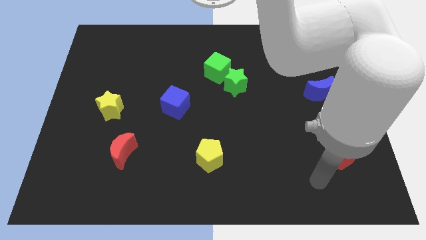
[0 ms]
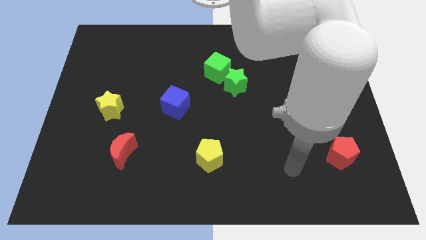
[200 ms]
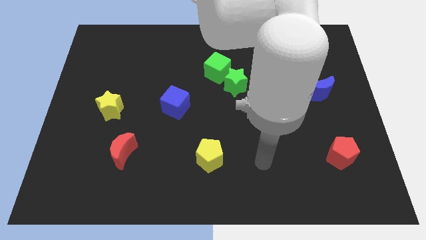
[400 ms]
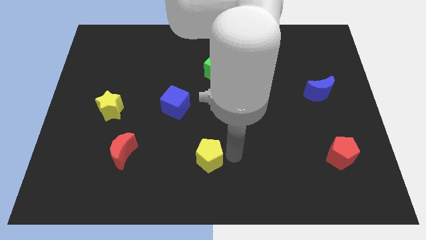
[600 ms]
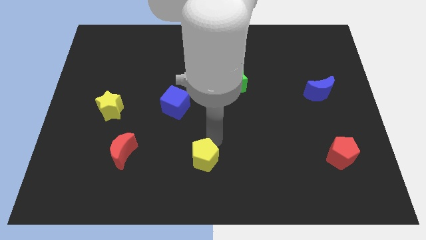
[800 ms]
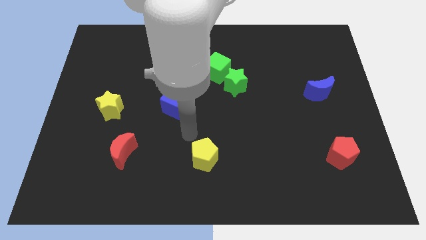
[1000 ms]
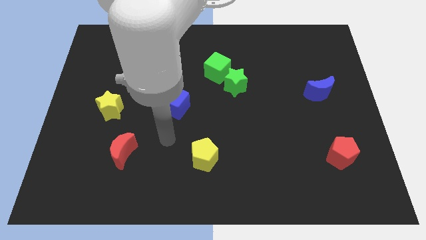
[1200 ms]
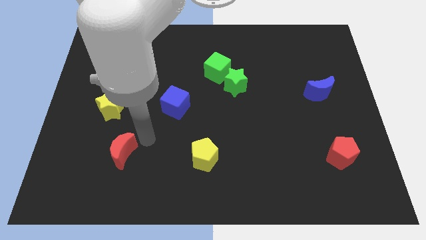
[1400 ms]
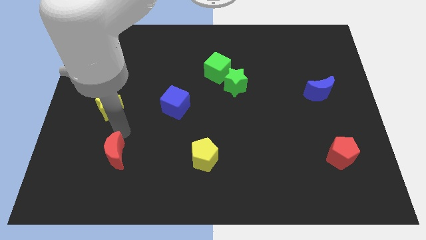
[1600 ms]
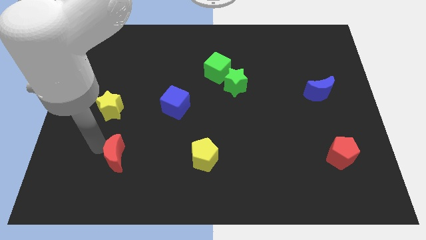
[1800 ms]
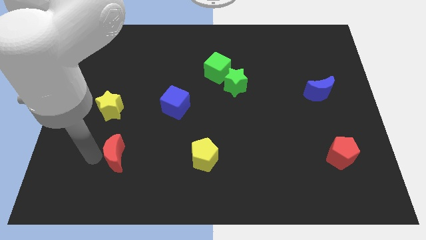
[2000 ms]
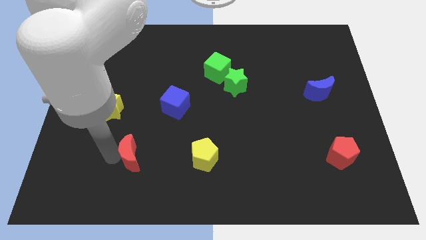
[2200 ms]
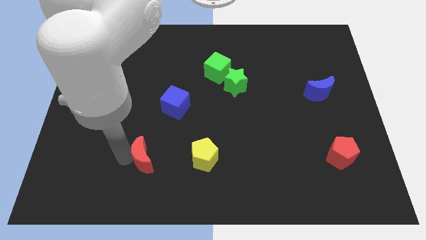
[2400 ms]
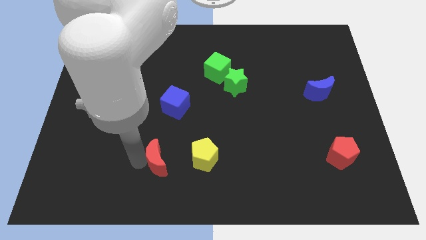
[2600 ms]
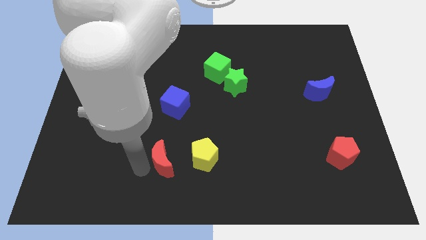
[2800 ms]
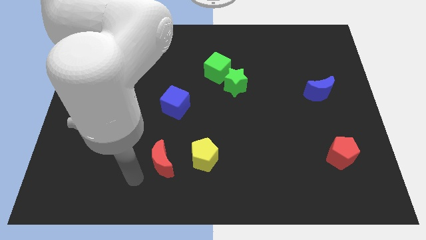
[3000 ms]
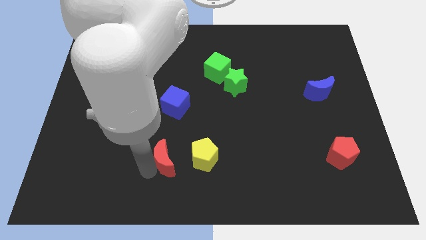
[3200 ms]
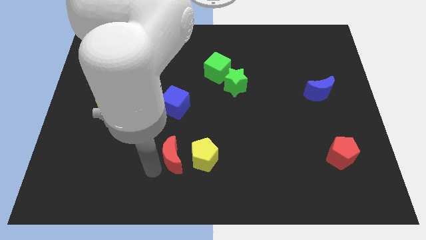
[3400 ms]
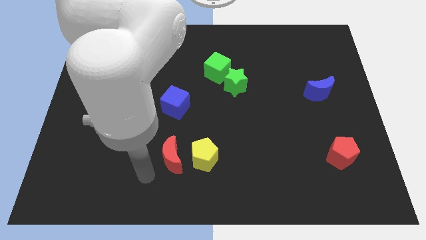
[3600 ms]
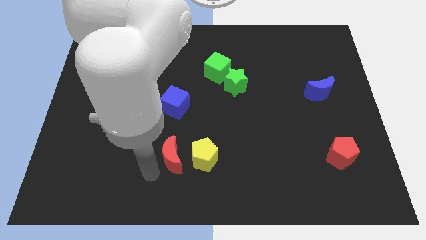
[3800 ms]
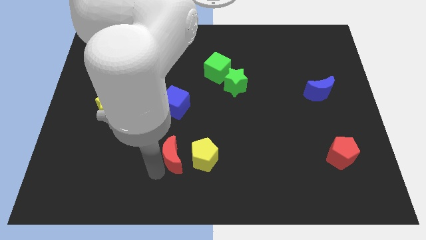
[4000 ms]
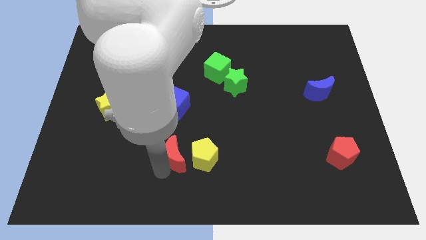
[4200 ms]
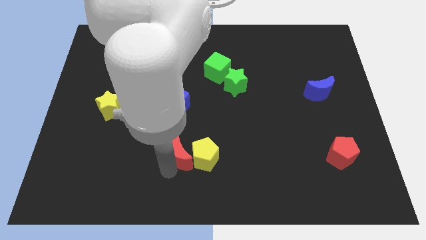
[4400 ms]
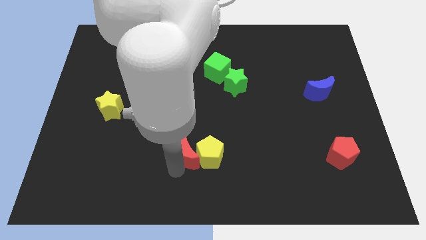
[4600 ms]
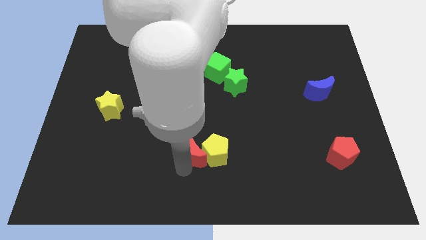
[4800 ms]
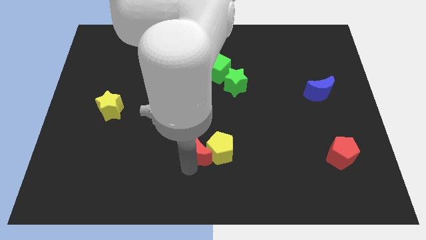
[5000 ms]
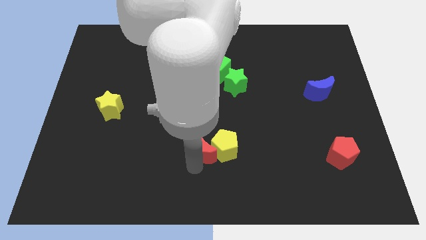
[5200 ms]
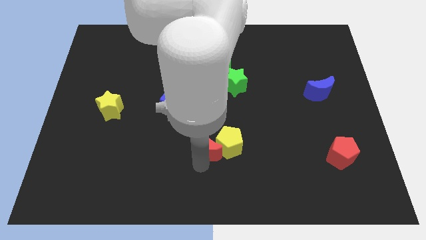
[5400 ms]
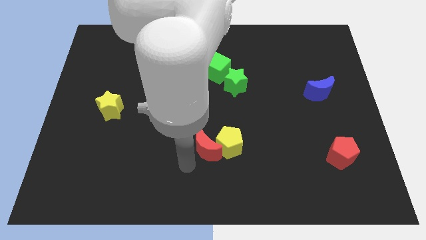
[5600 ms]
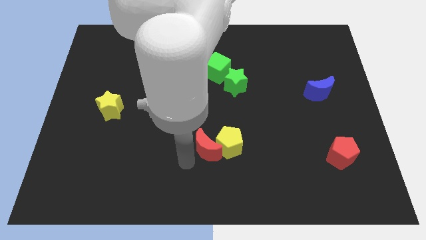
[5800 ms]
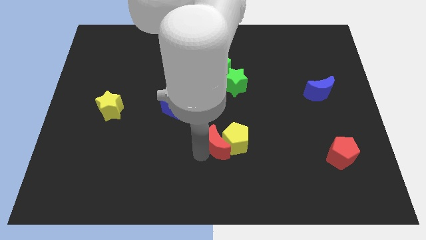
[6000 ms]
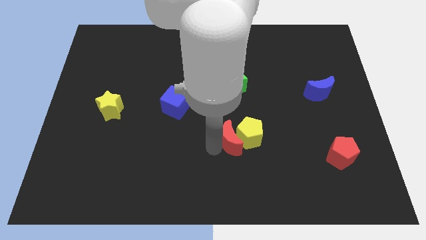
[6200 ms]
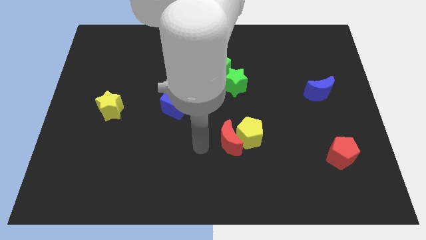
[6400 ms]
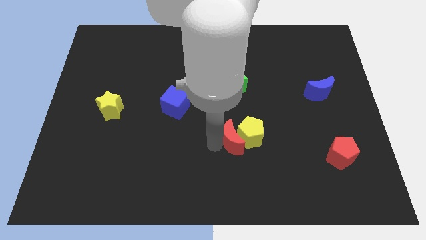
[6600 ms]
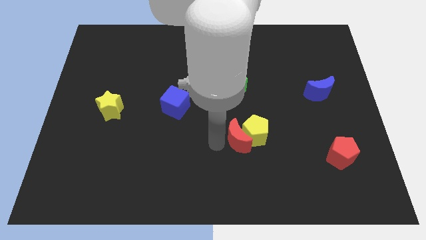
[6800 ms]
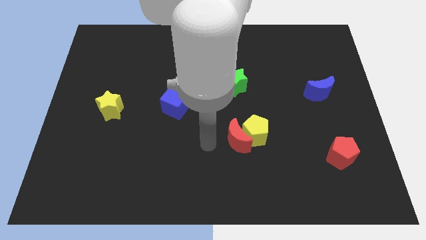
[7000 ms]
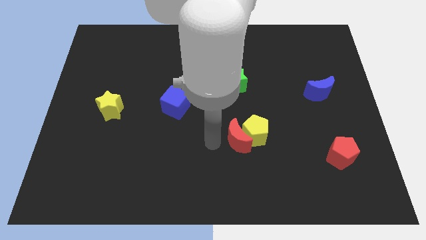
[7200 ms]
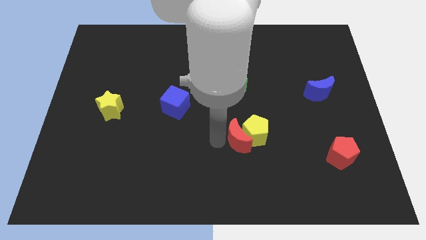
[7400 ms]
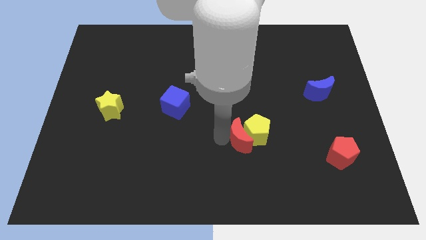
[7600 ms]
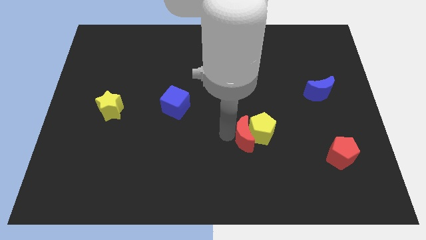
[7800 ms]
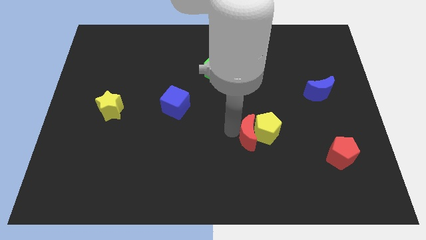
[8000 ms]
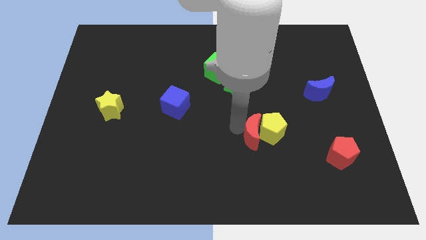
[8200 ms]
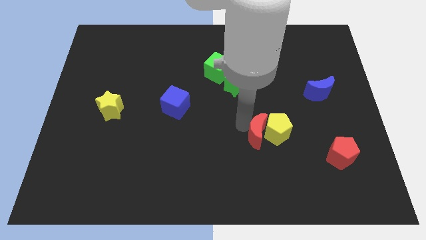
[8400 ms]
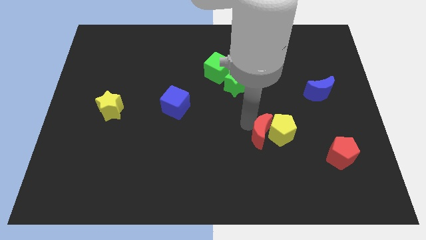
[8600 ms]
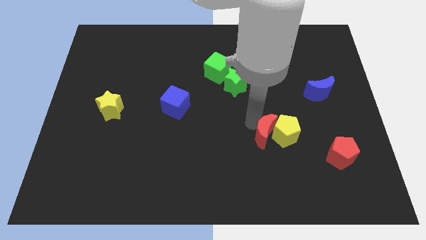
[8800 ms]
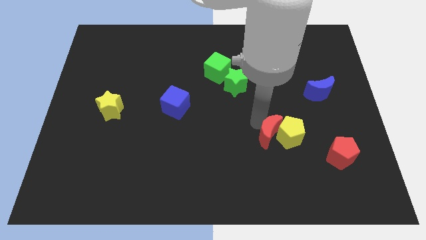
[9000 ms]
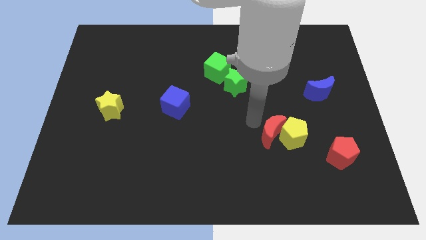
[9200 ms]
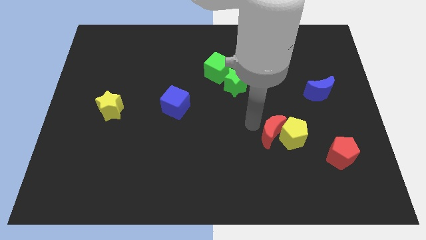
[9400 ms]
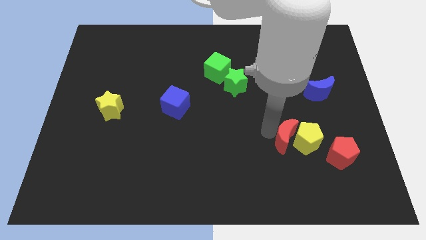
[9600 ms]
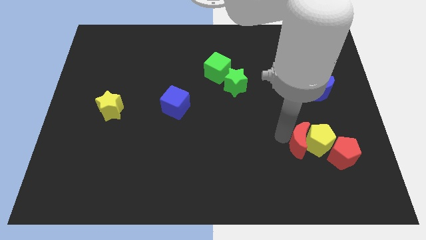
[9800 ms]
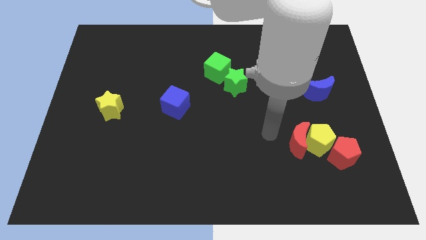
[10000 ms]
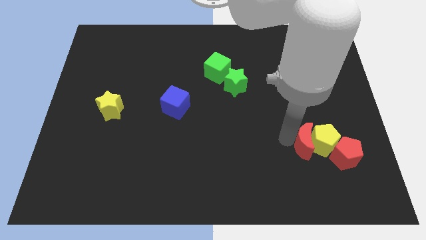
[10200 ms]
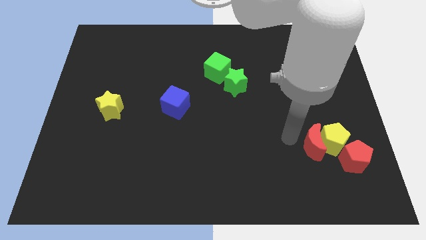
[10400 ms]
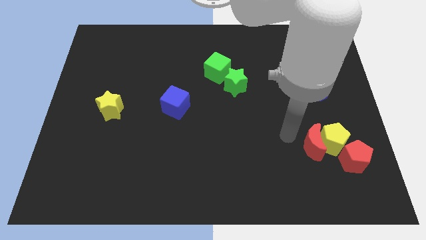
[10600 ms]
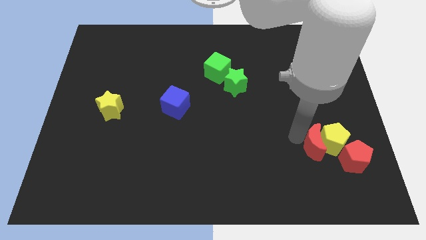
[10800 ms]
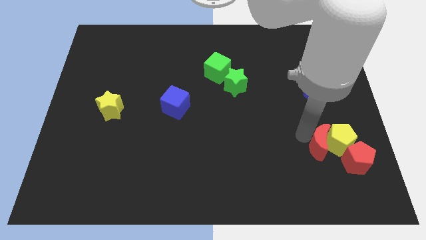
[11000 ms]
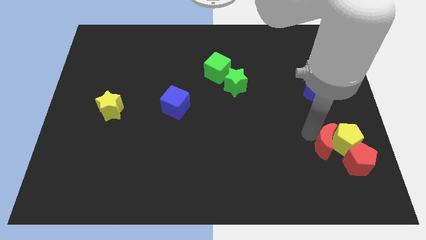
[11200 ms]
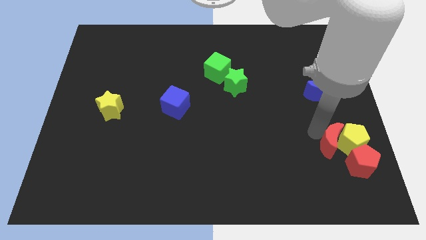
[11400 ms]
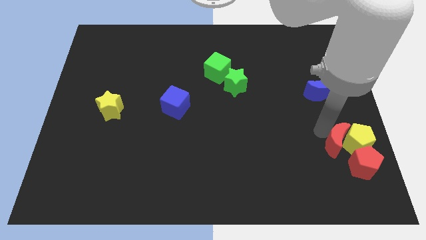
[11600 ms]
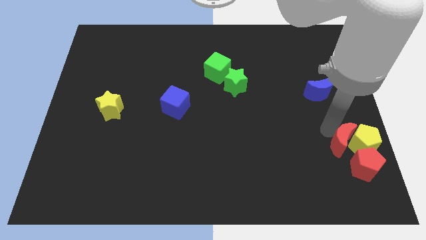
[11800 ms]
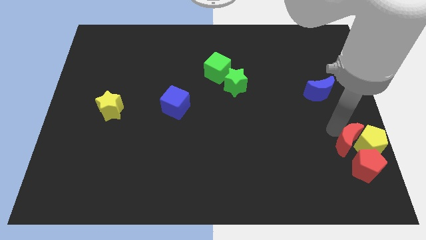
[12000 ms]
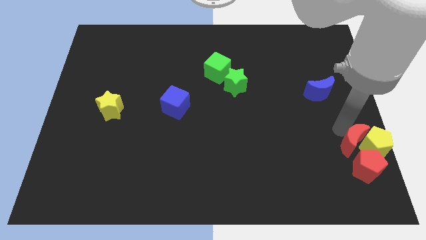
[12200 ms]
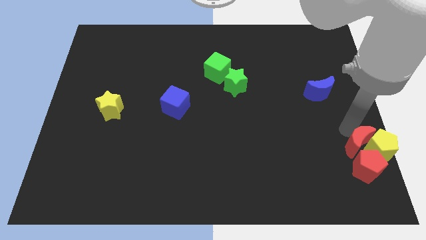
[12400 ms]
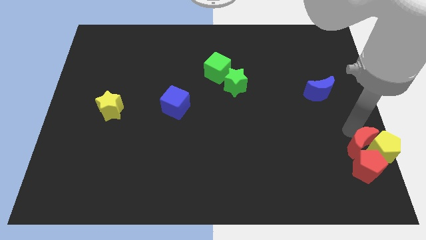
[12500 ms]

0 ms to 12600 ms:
put the red moon close to the red pentagon

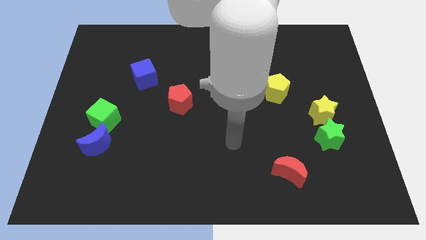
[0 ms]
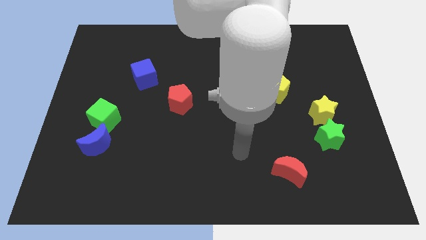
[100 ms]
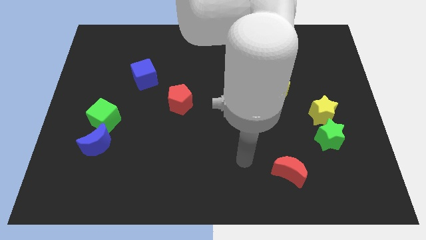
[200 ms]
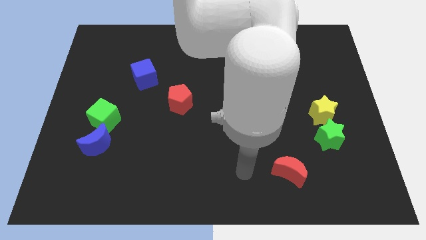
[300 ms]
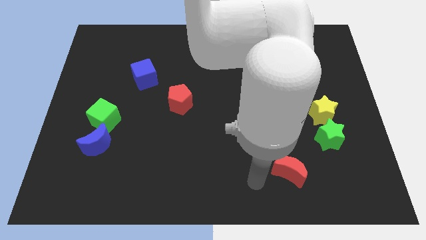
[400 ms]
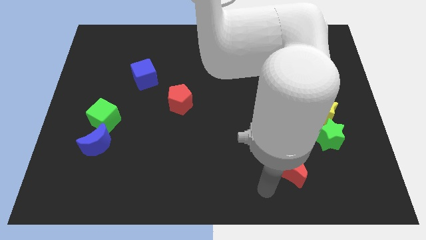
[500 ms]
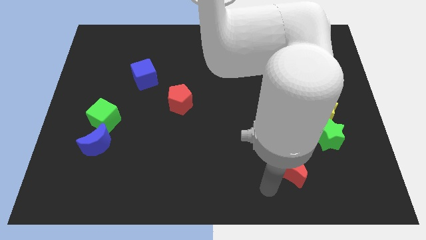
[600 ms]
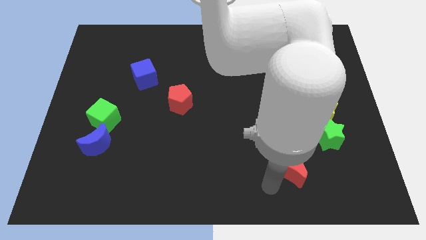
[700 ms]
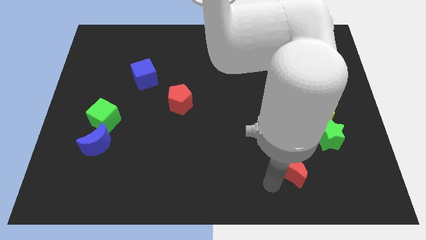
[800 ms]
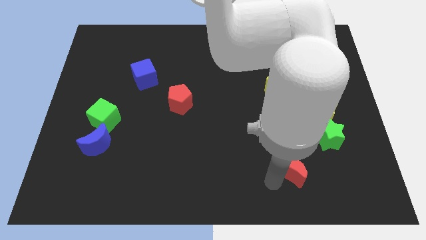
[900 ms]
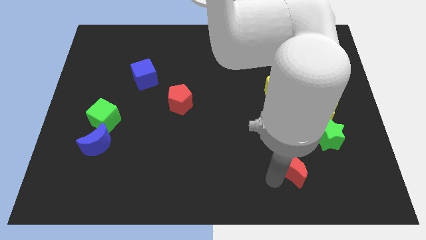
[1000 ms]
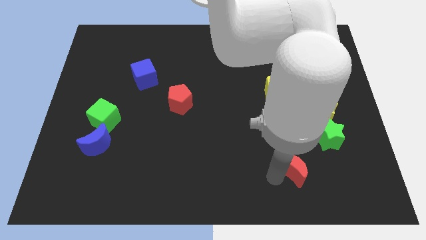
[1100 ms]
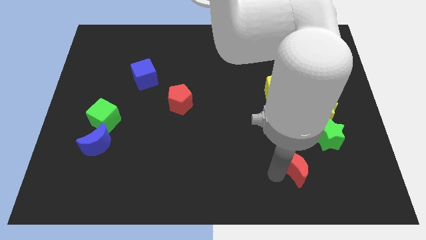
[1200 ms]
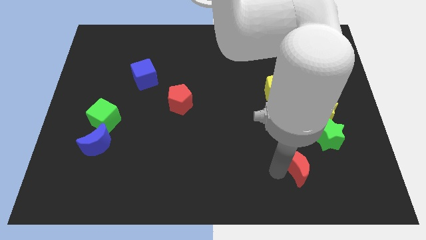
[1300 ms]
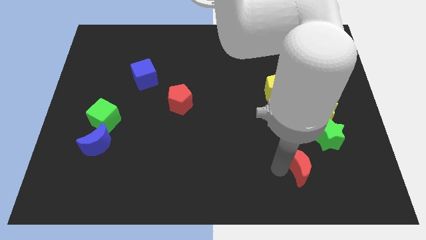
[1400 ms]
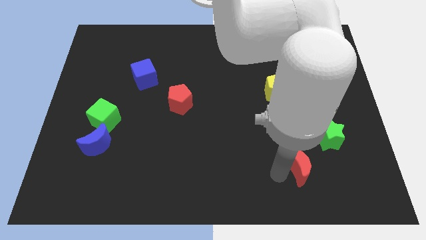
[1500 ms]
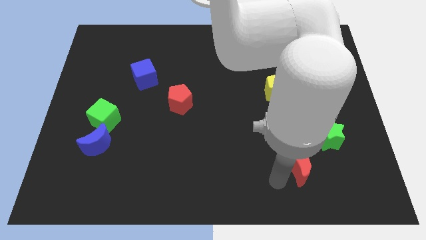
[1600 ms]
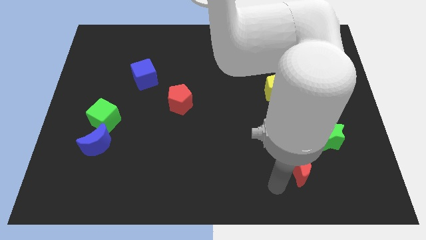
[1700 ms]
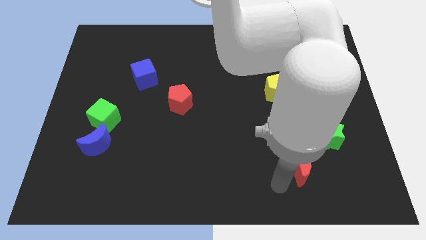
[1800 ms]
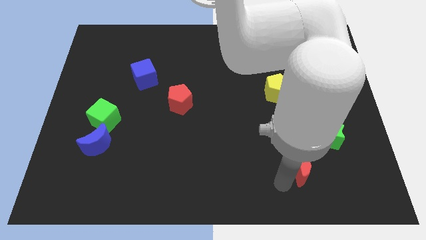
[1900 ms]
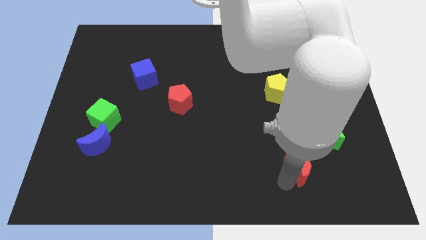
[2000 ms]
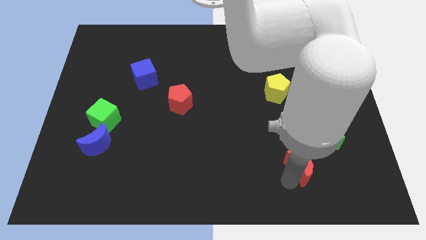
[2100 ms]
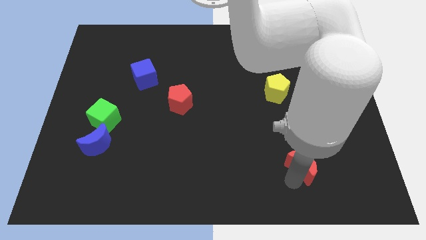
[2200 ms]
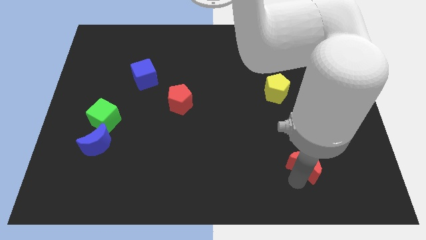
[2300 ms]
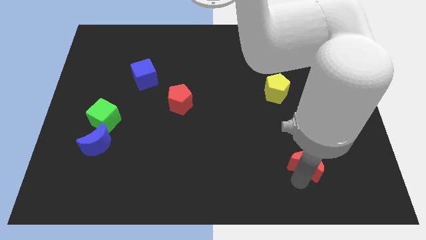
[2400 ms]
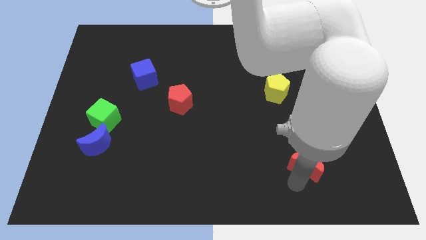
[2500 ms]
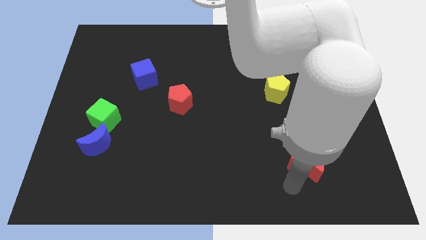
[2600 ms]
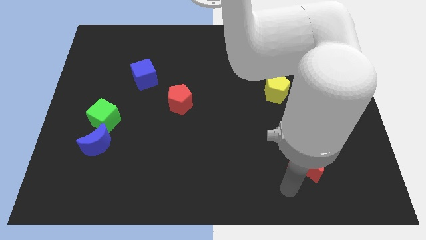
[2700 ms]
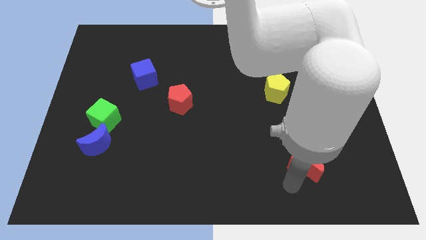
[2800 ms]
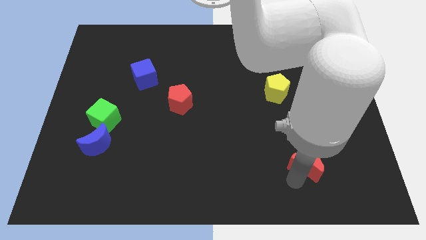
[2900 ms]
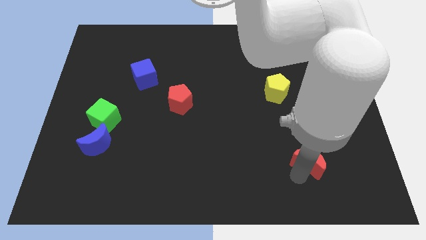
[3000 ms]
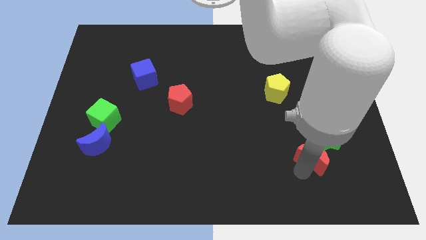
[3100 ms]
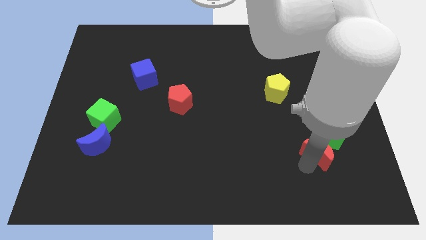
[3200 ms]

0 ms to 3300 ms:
slide the red moon next to the green star
